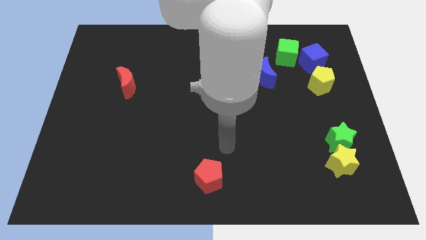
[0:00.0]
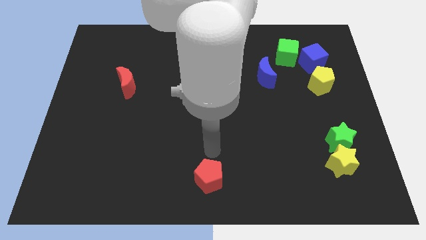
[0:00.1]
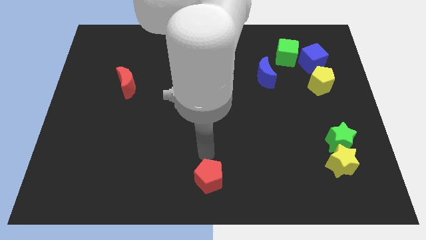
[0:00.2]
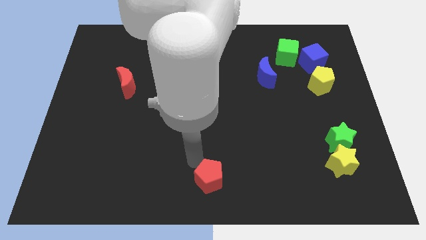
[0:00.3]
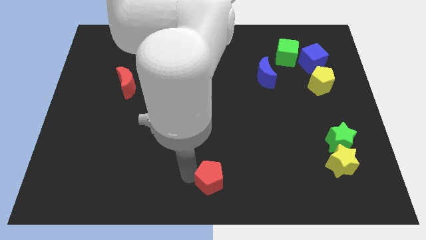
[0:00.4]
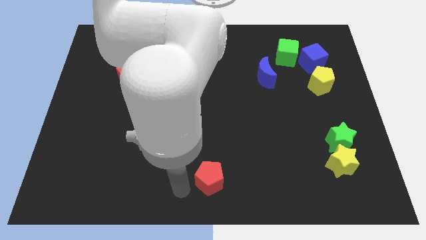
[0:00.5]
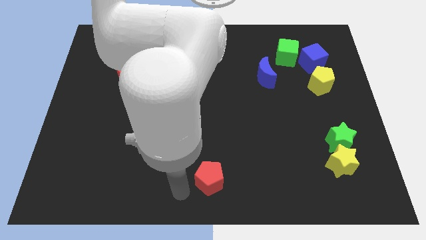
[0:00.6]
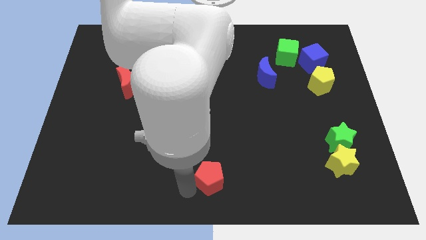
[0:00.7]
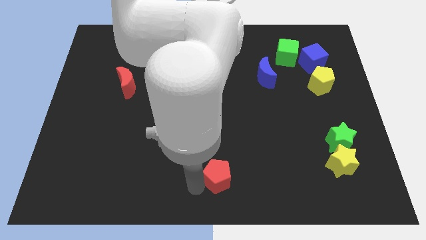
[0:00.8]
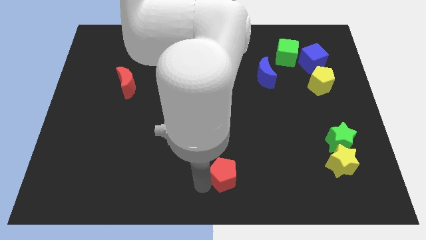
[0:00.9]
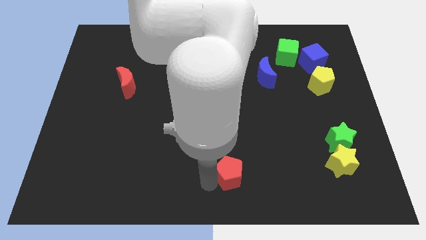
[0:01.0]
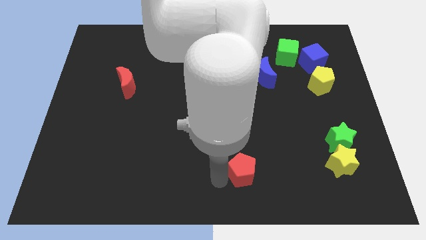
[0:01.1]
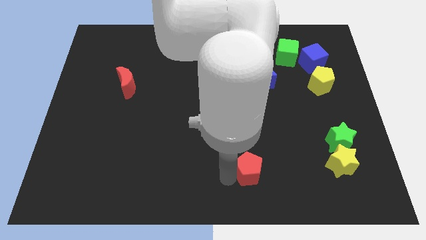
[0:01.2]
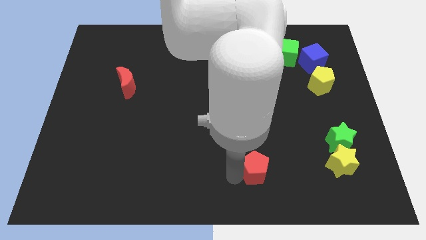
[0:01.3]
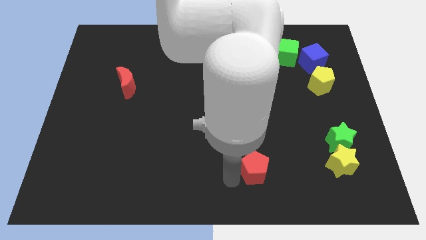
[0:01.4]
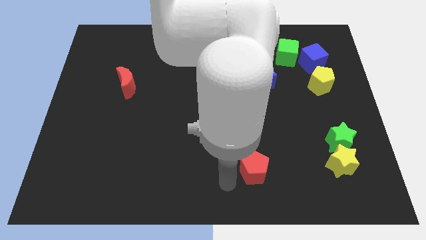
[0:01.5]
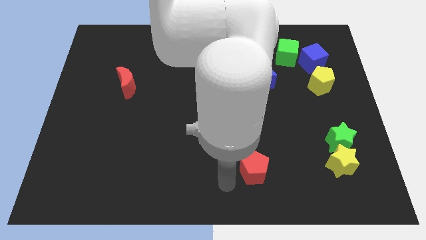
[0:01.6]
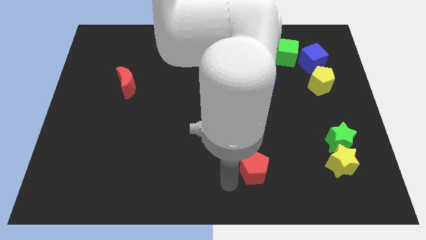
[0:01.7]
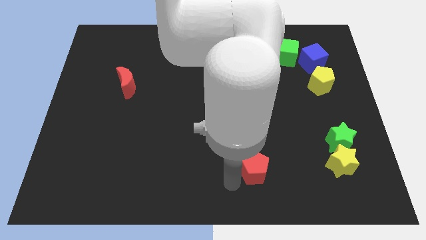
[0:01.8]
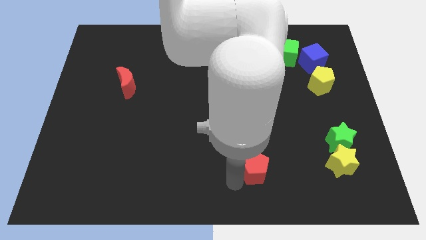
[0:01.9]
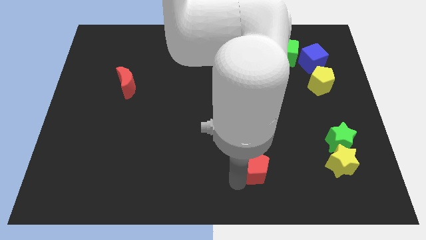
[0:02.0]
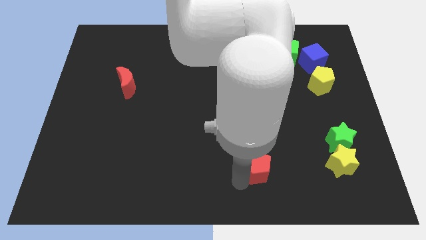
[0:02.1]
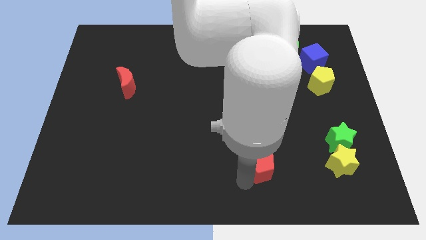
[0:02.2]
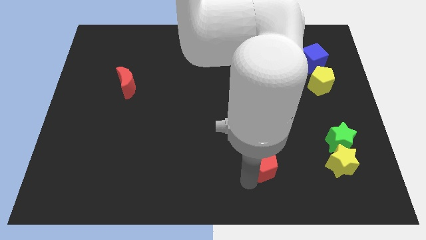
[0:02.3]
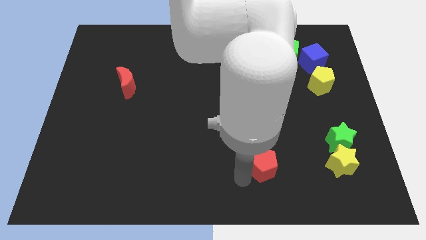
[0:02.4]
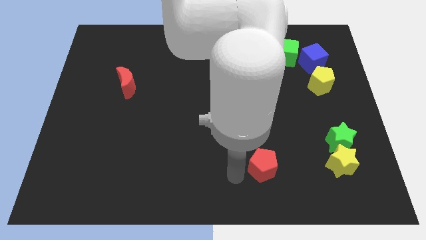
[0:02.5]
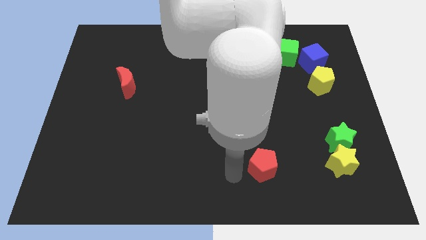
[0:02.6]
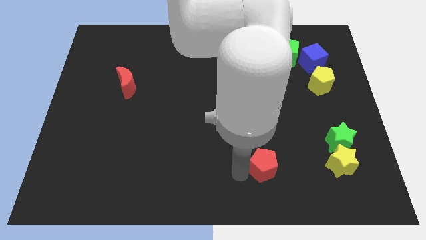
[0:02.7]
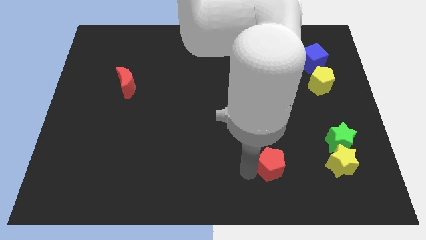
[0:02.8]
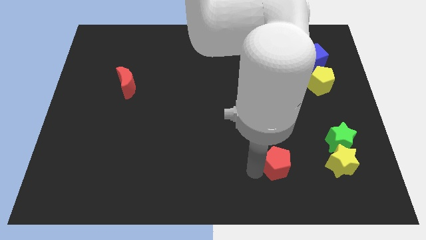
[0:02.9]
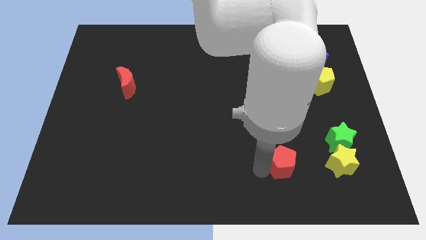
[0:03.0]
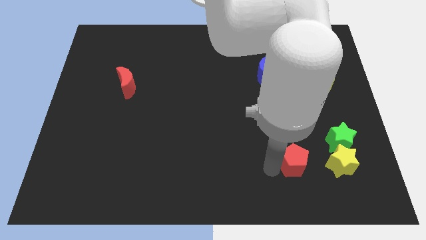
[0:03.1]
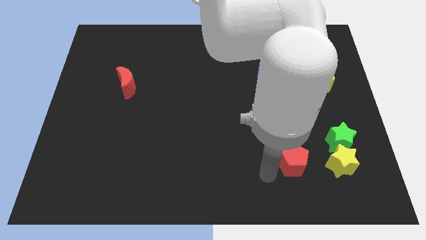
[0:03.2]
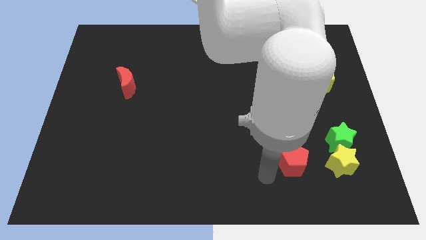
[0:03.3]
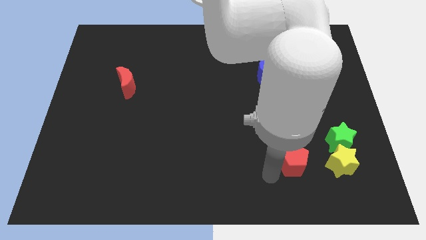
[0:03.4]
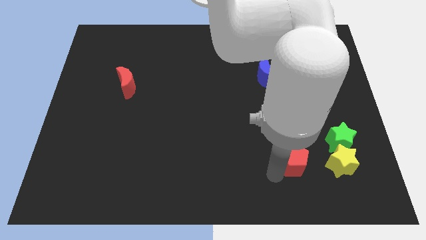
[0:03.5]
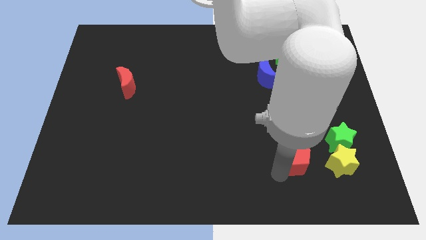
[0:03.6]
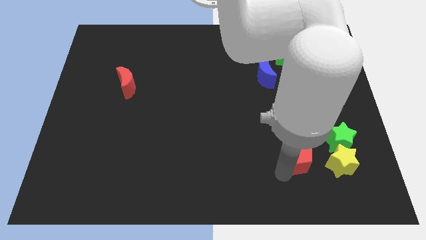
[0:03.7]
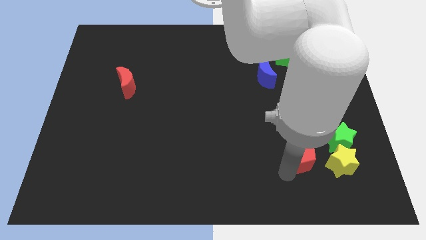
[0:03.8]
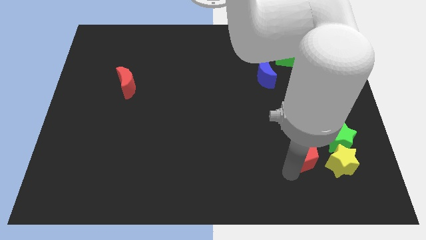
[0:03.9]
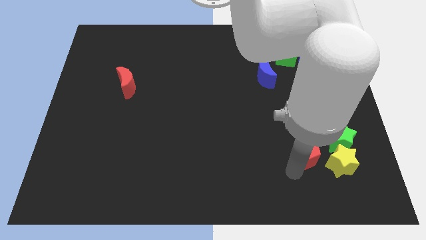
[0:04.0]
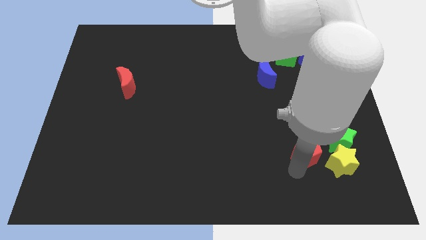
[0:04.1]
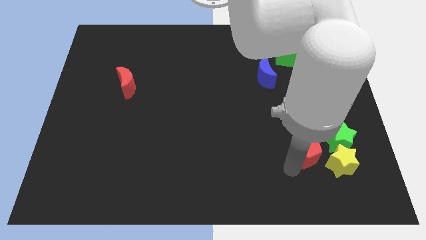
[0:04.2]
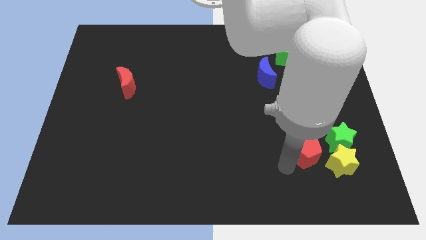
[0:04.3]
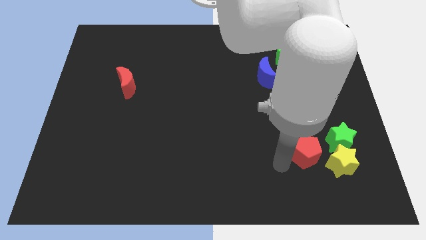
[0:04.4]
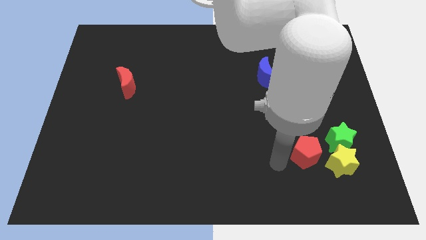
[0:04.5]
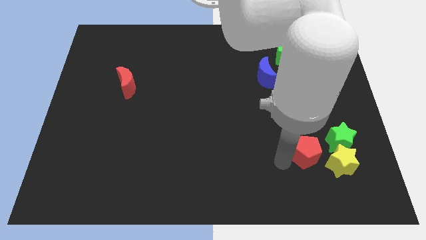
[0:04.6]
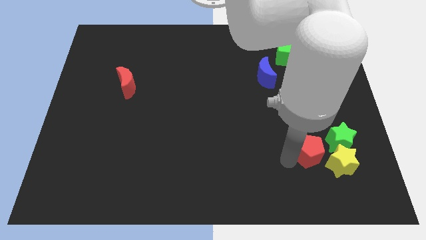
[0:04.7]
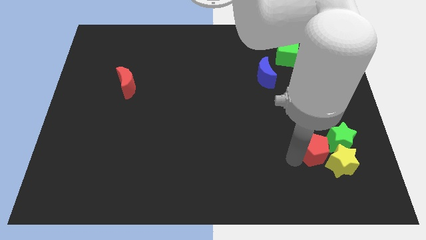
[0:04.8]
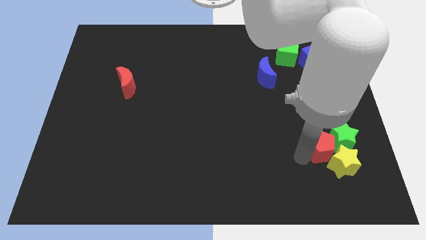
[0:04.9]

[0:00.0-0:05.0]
slide the red pentagon towards the green star

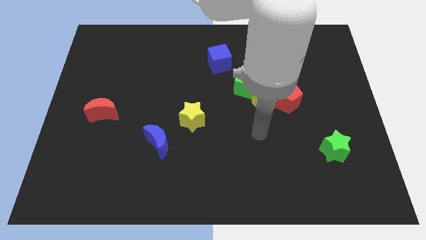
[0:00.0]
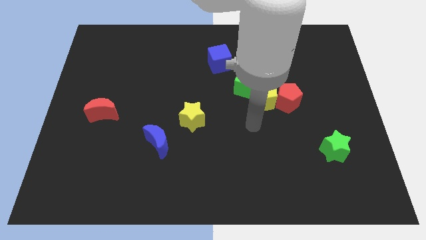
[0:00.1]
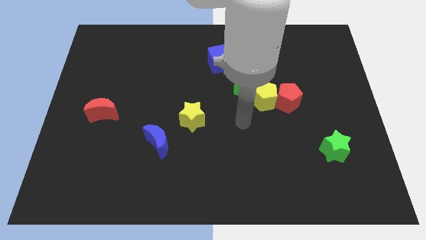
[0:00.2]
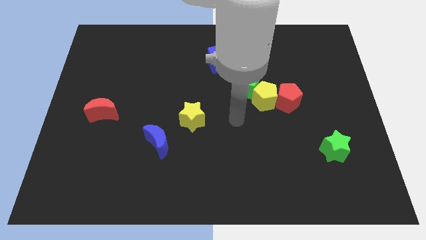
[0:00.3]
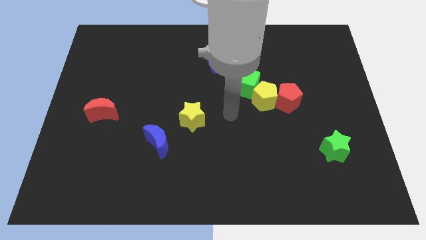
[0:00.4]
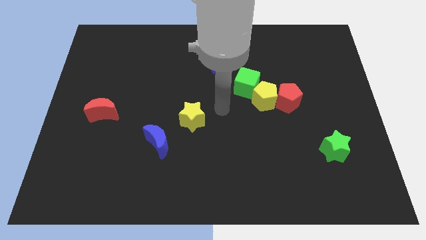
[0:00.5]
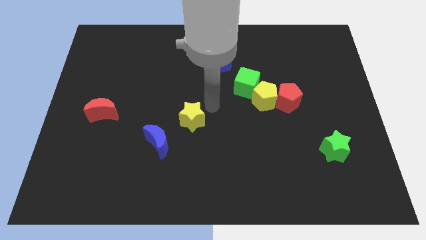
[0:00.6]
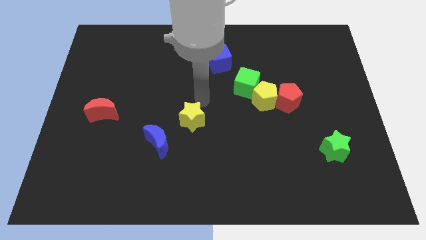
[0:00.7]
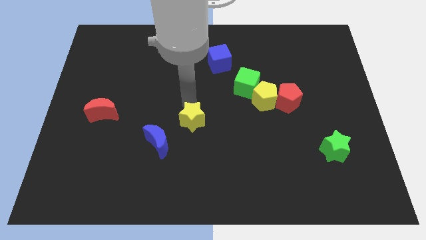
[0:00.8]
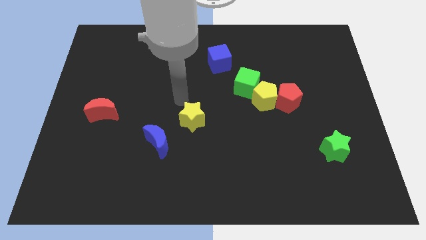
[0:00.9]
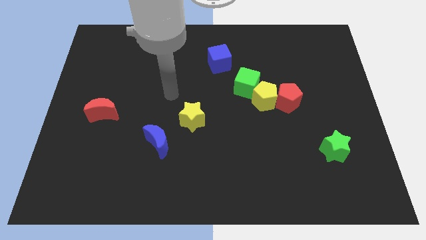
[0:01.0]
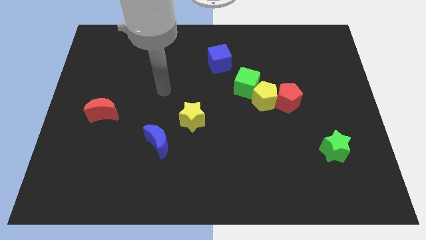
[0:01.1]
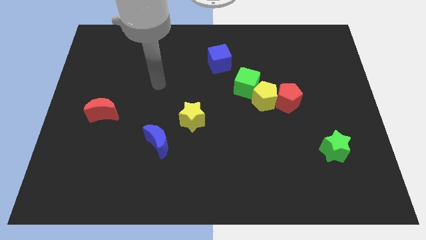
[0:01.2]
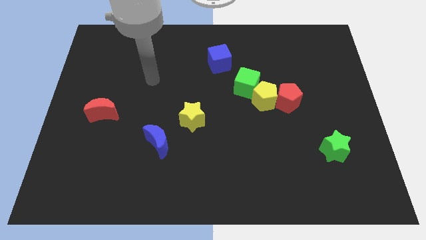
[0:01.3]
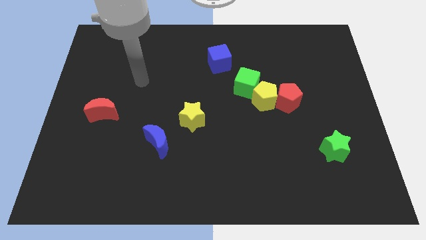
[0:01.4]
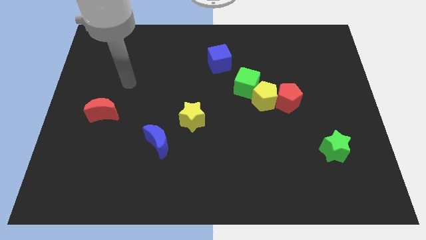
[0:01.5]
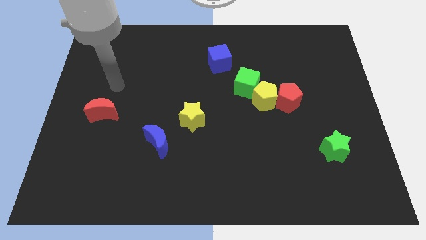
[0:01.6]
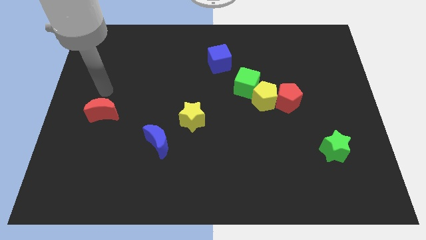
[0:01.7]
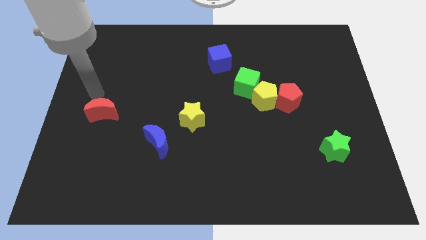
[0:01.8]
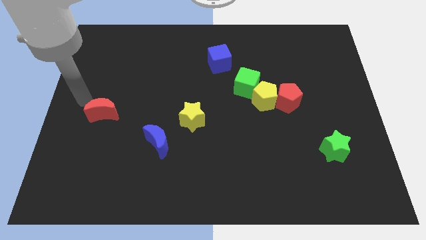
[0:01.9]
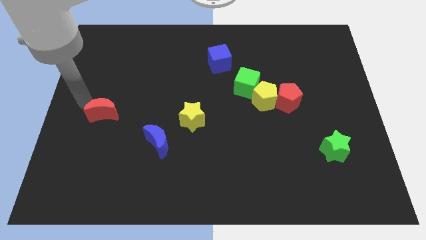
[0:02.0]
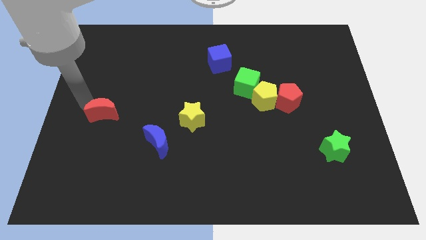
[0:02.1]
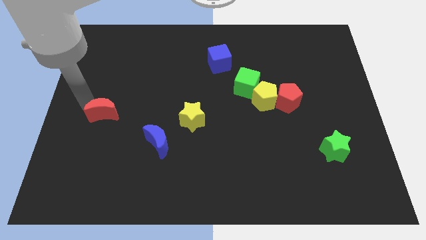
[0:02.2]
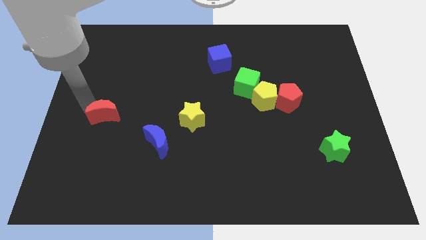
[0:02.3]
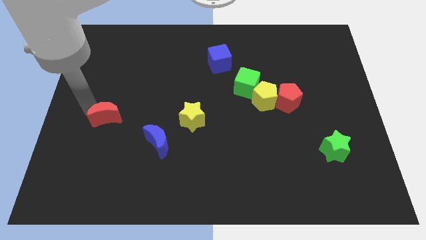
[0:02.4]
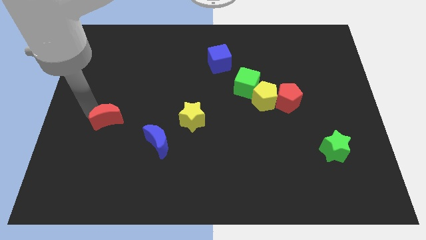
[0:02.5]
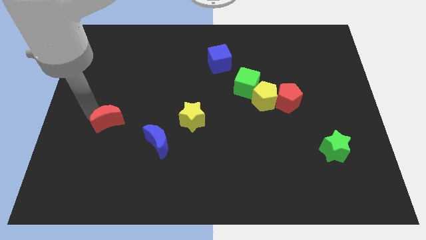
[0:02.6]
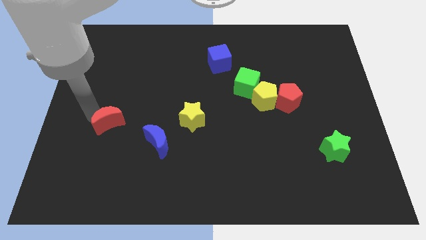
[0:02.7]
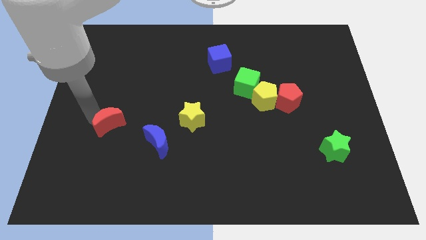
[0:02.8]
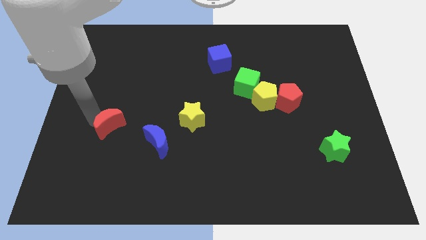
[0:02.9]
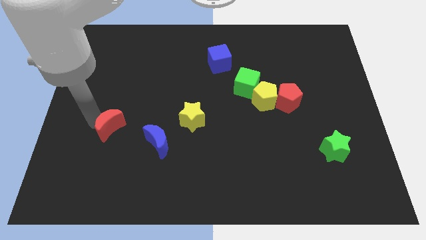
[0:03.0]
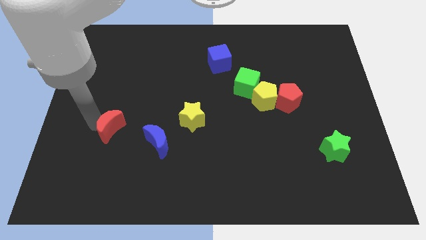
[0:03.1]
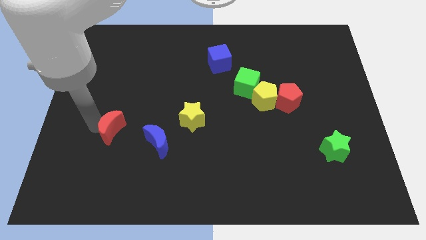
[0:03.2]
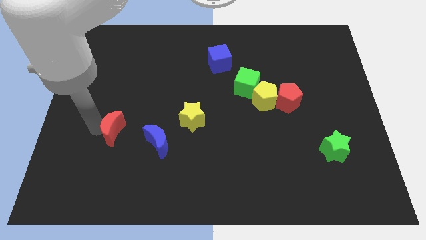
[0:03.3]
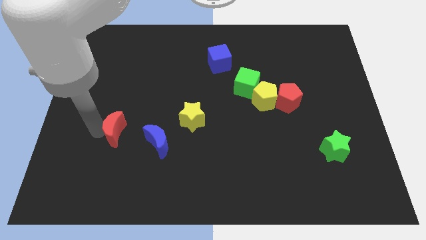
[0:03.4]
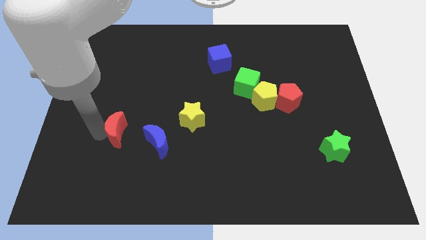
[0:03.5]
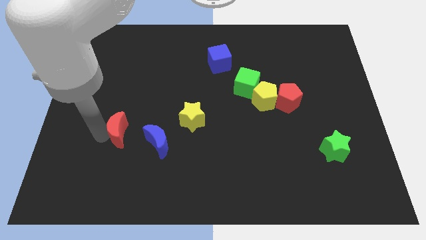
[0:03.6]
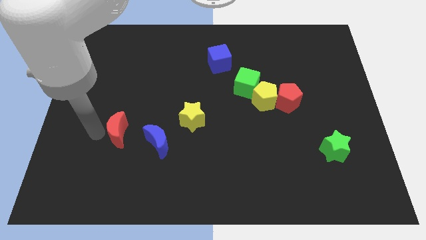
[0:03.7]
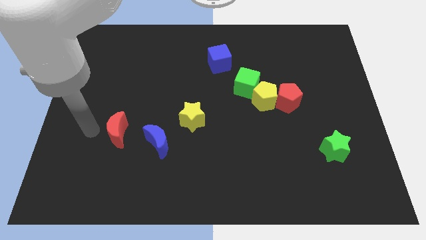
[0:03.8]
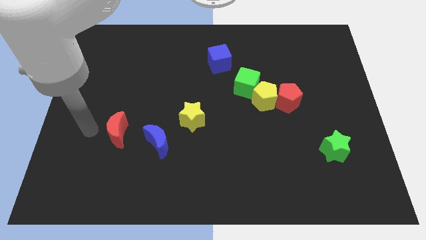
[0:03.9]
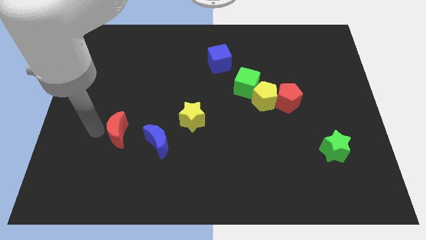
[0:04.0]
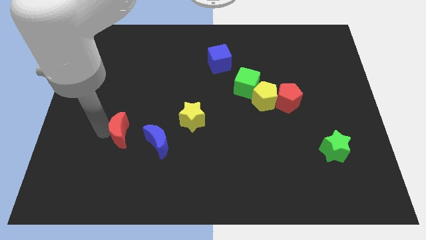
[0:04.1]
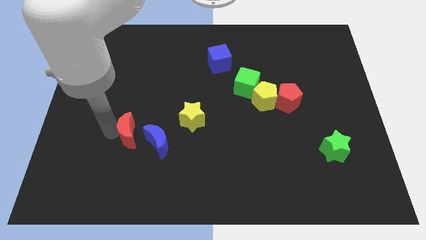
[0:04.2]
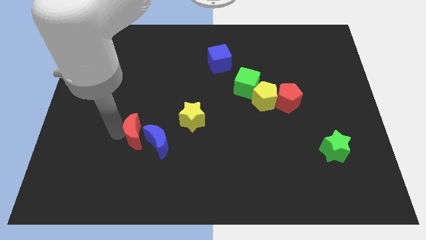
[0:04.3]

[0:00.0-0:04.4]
put the red moon to the blue moon
